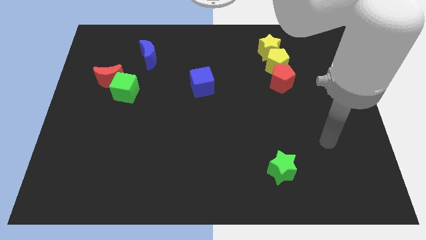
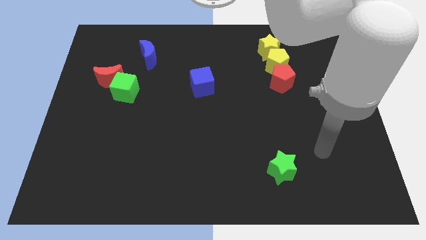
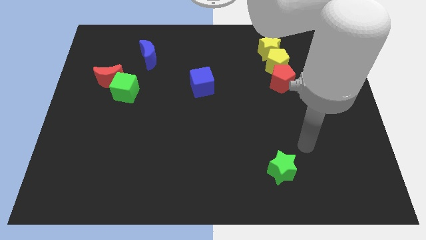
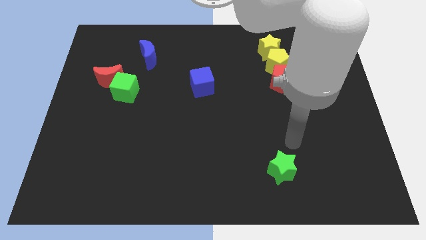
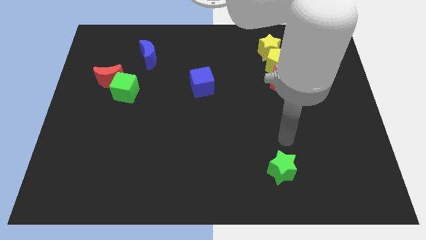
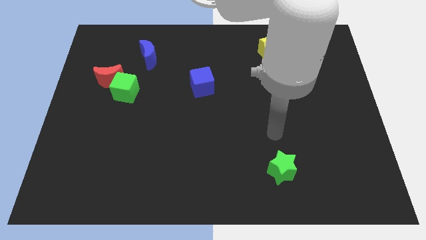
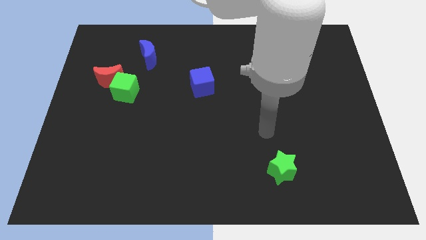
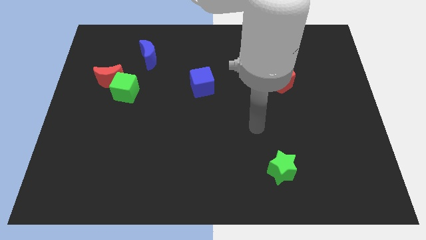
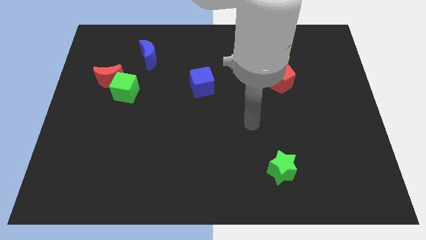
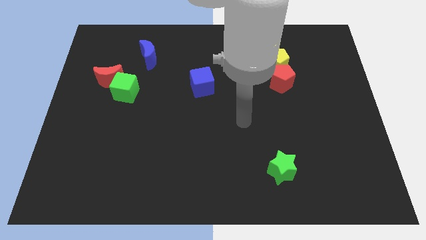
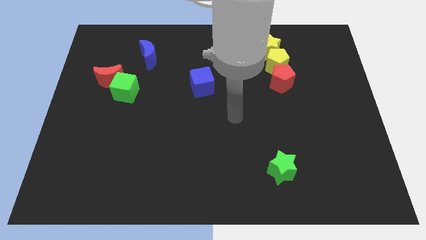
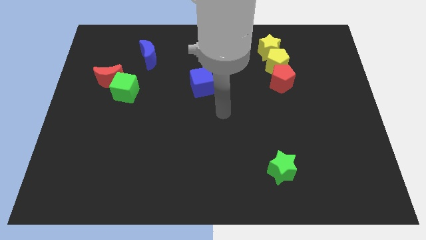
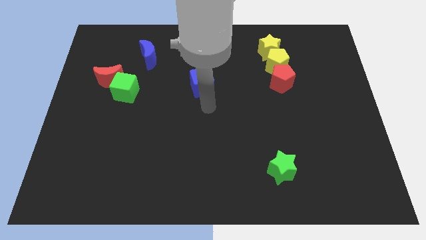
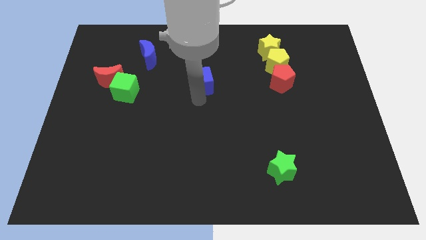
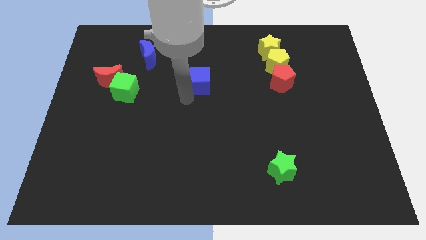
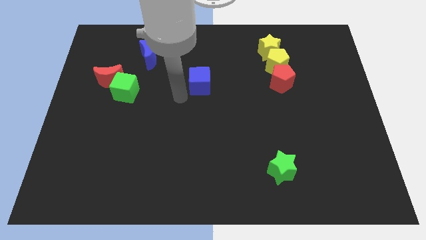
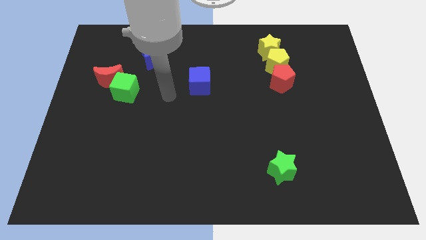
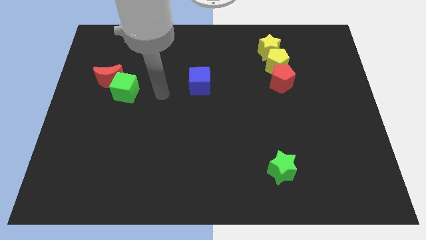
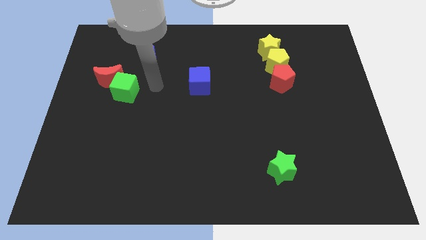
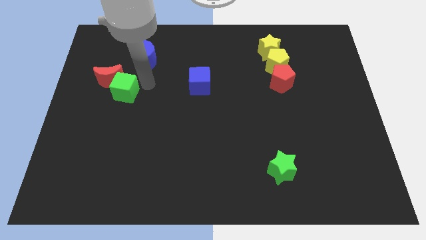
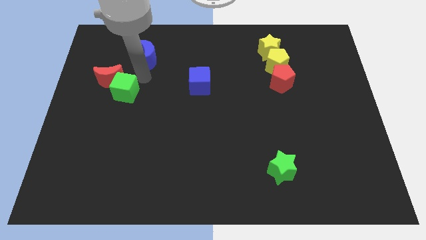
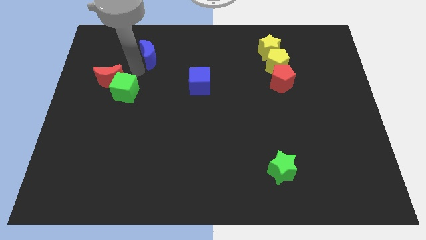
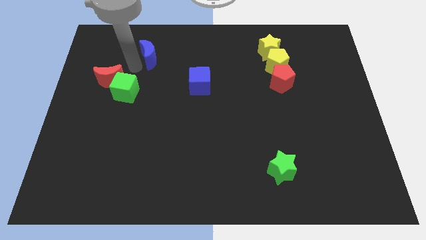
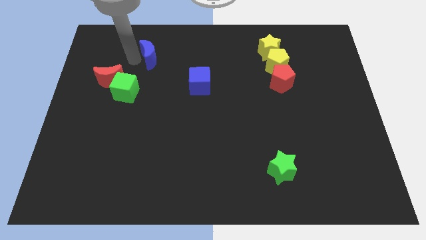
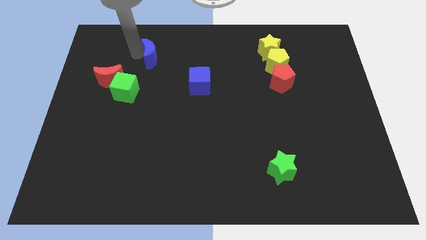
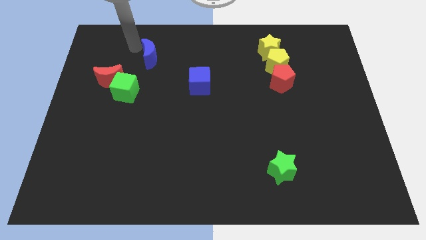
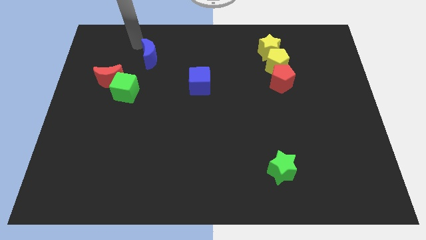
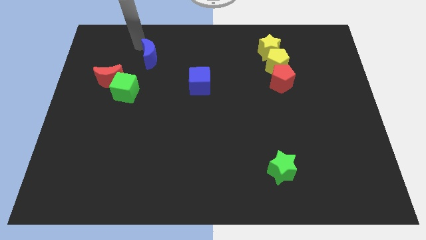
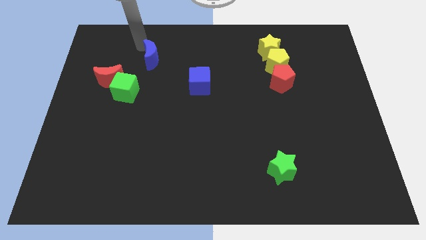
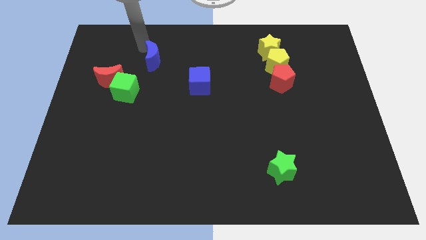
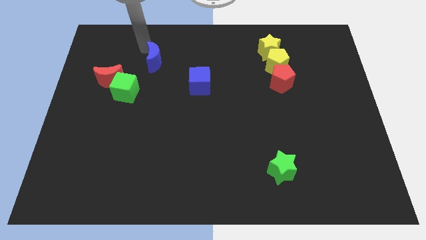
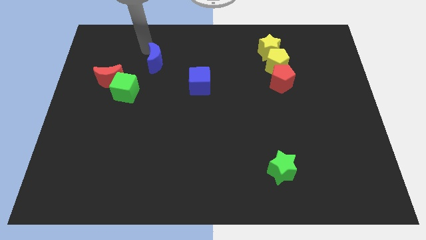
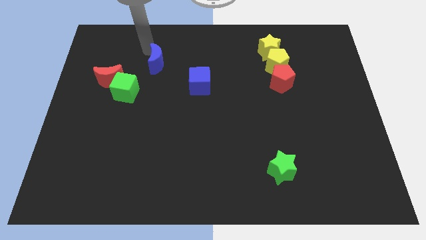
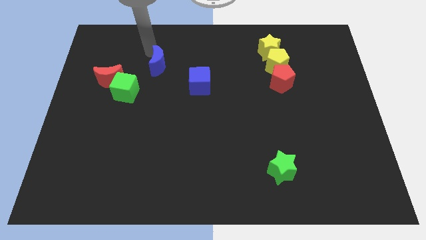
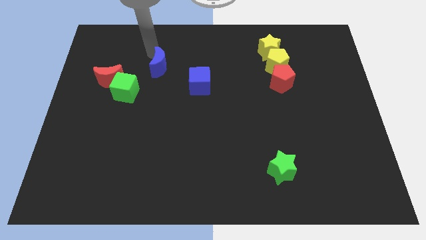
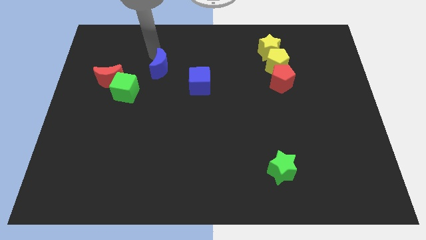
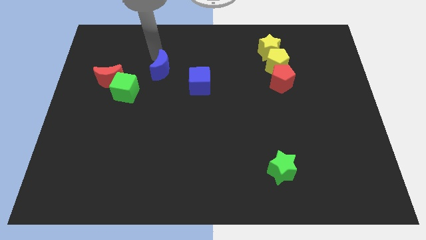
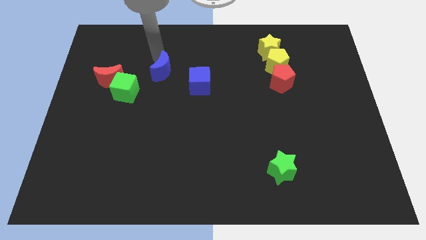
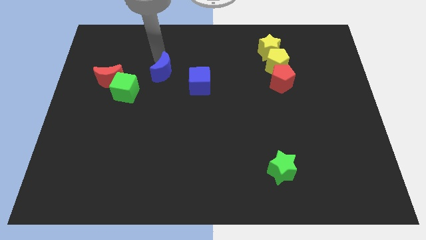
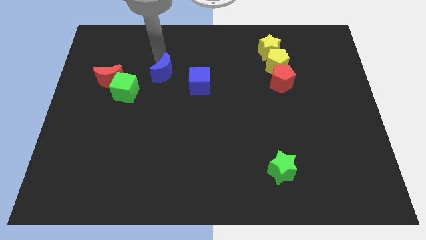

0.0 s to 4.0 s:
push the blue moon a little bit down and right diagonally

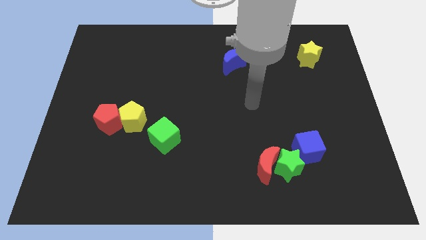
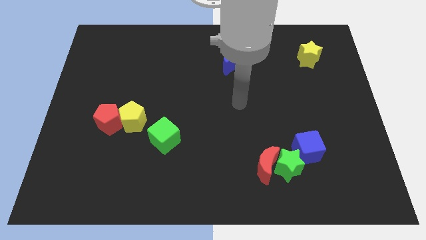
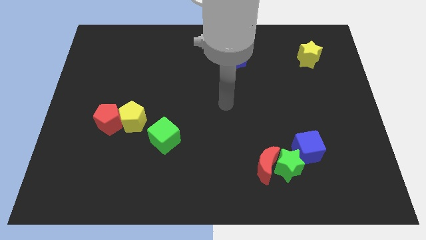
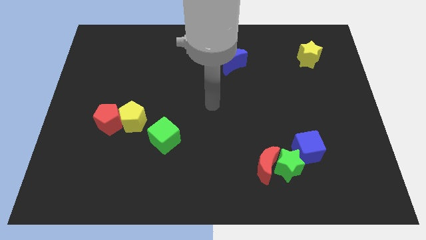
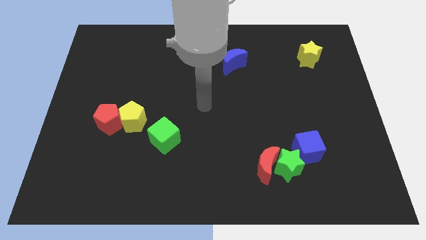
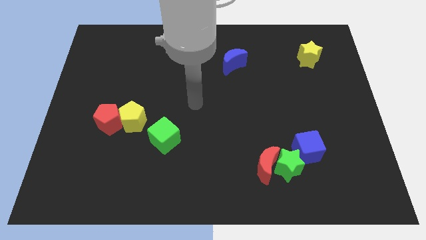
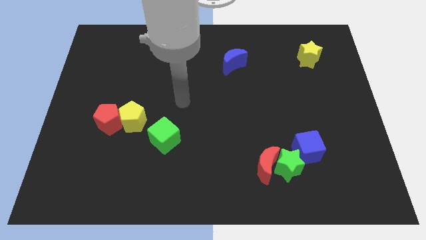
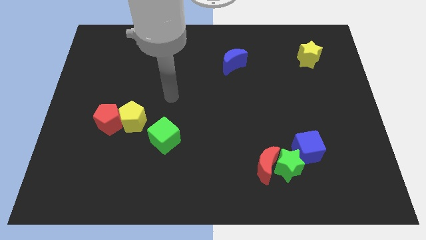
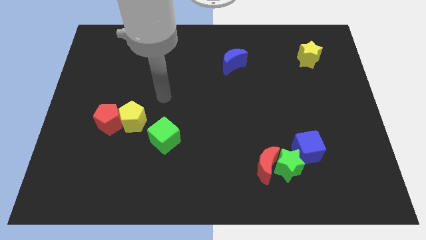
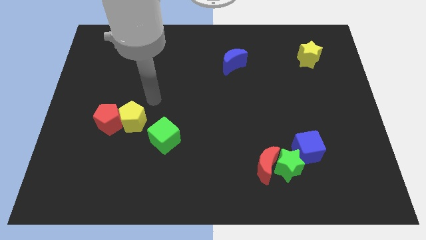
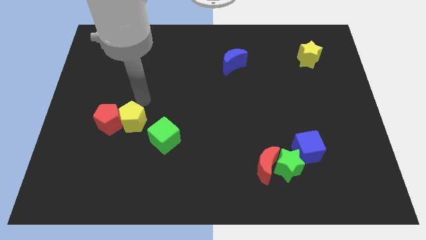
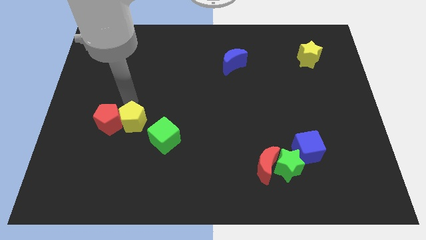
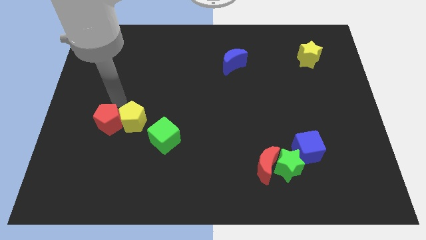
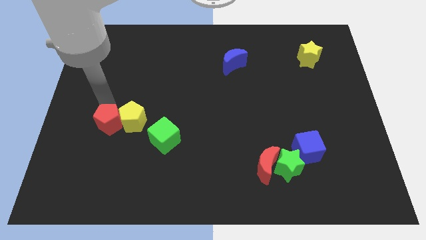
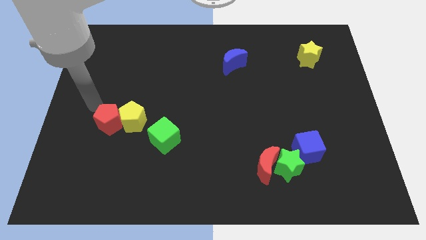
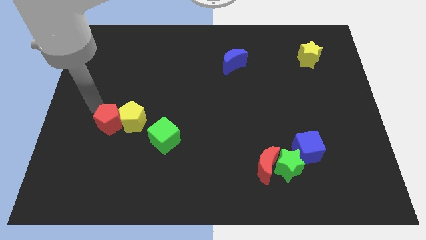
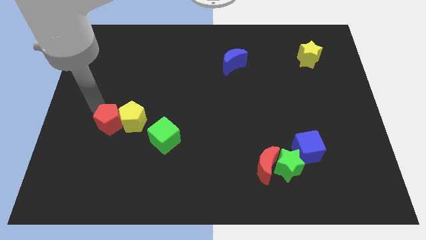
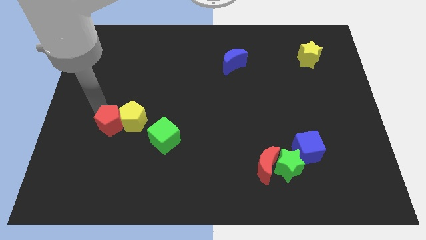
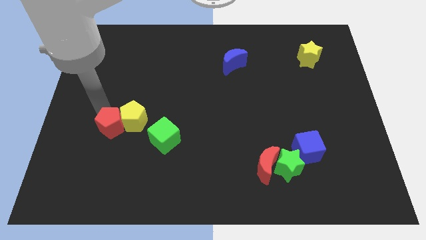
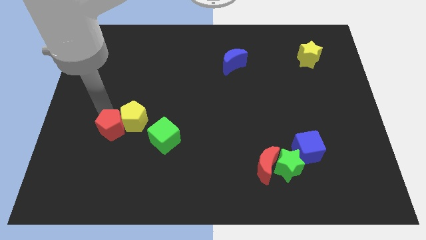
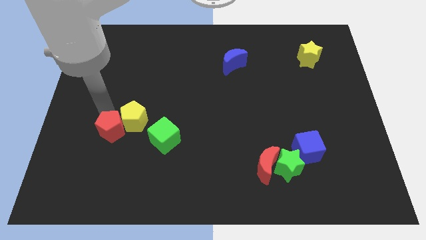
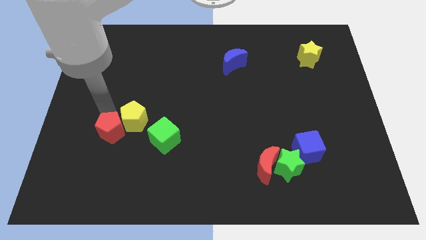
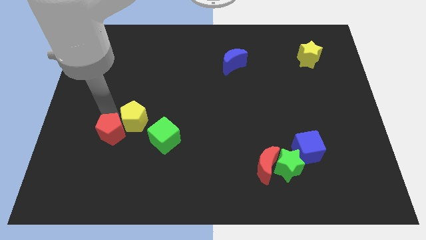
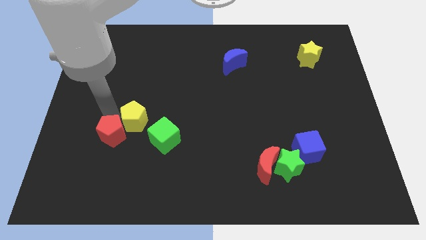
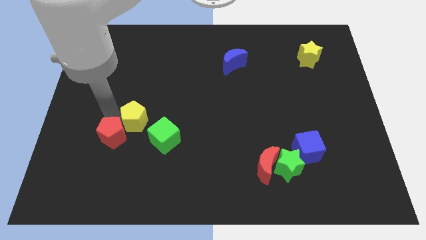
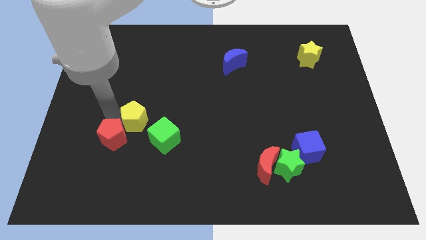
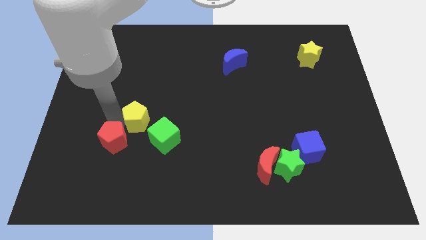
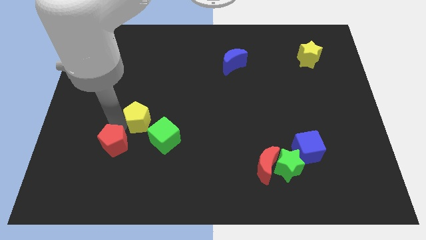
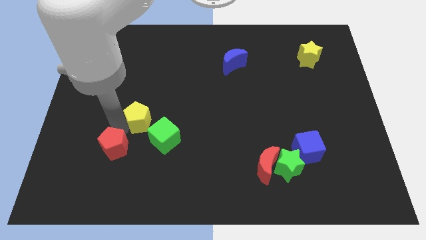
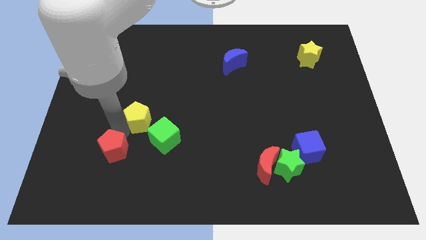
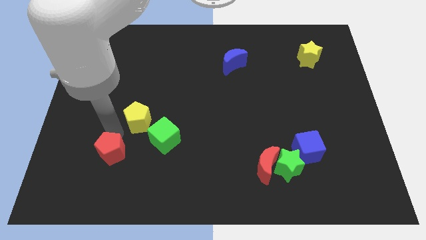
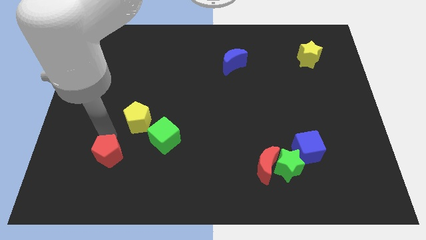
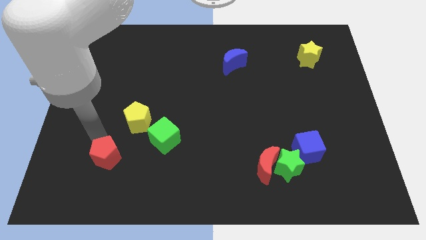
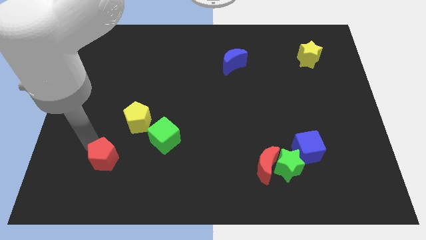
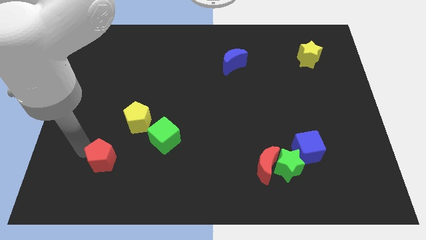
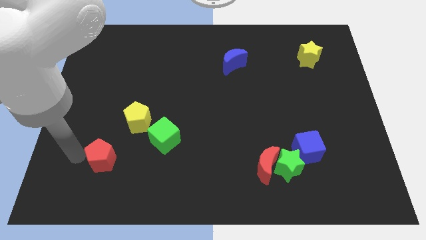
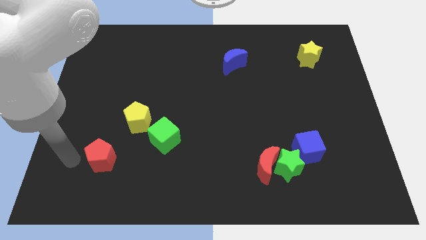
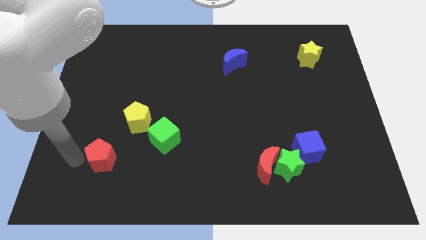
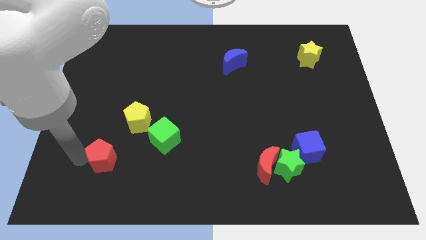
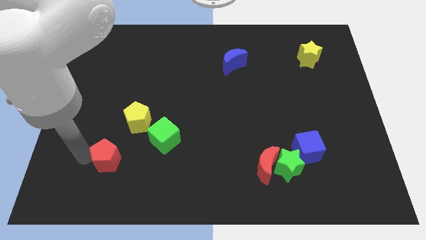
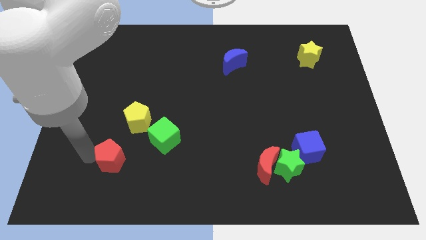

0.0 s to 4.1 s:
slightly push the red pentagon down and to the right

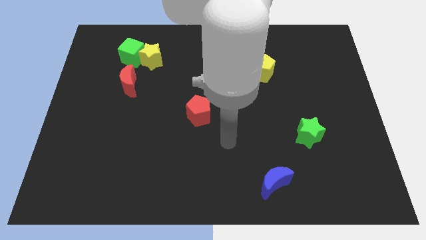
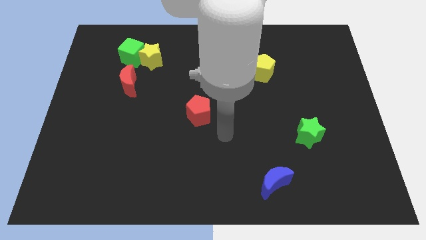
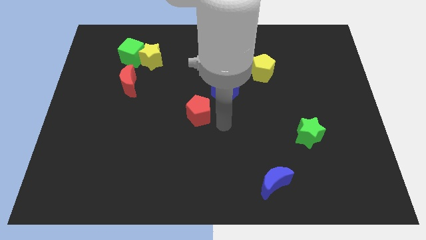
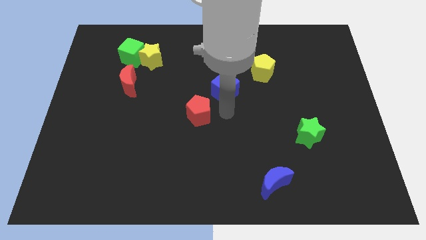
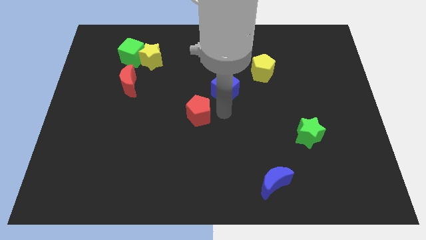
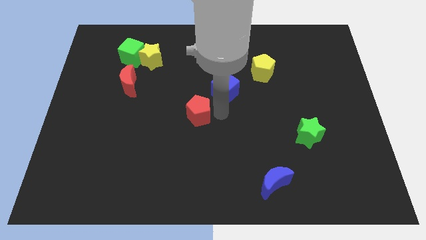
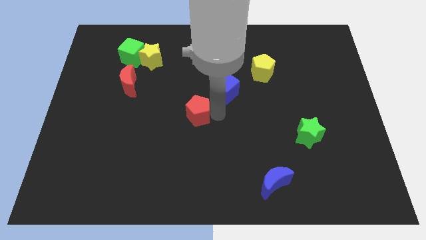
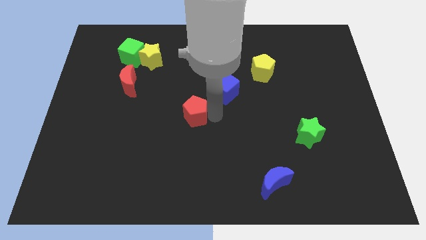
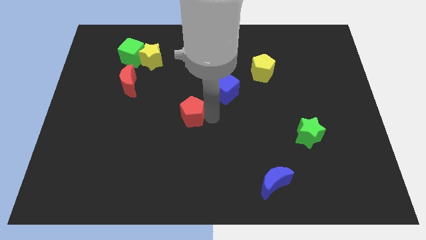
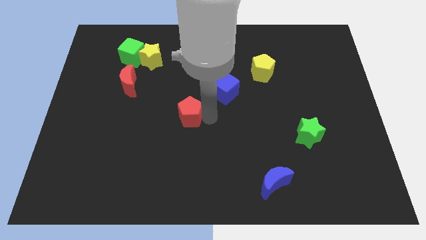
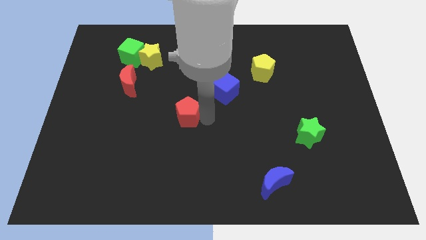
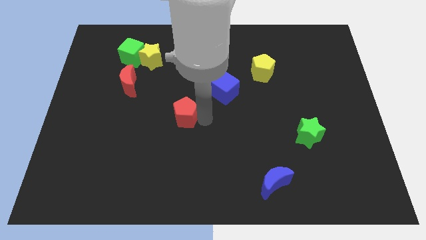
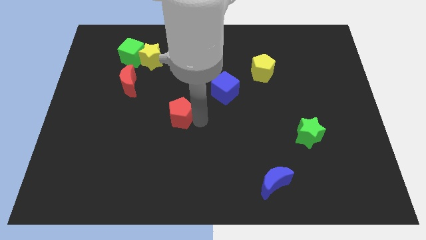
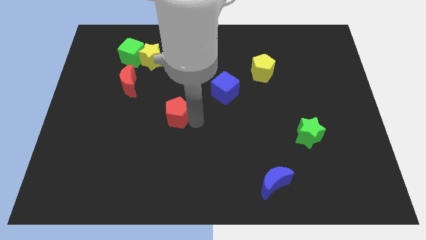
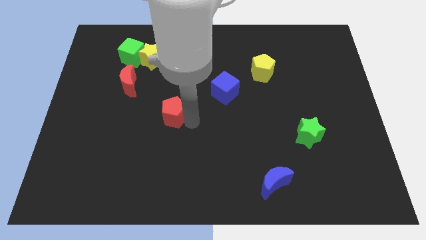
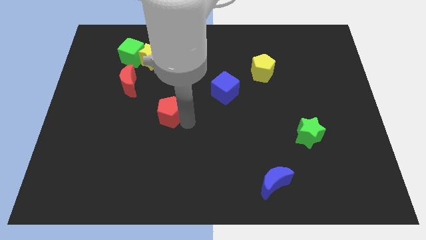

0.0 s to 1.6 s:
slide the red pentagon a bit left
